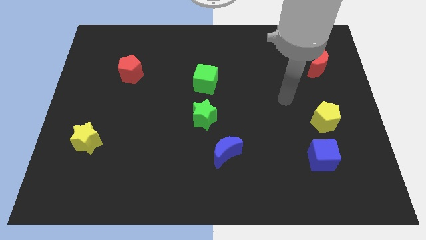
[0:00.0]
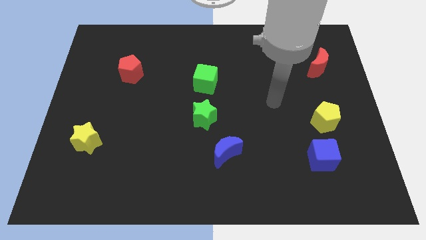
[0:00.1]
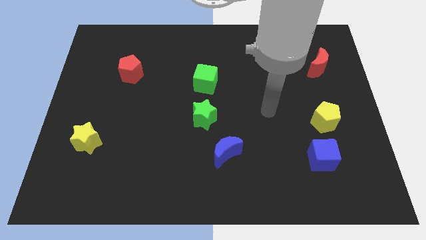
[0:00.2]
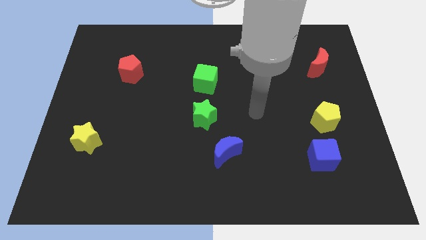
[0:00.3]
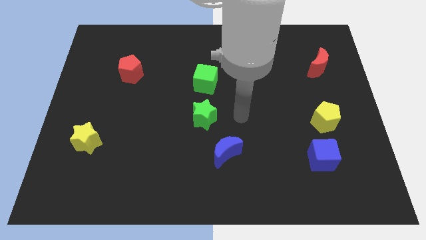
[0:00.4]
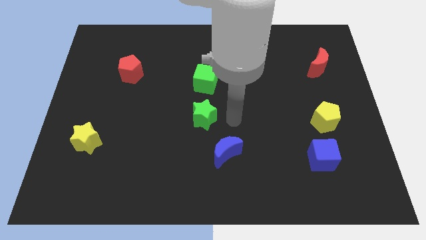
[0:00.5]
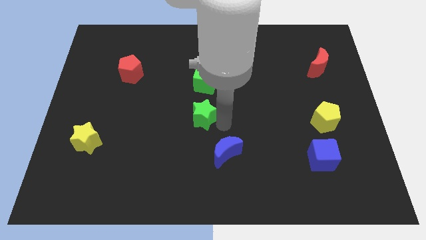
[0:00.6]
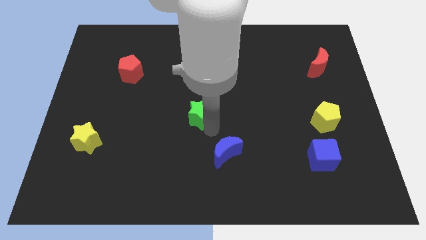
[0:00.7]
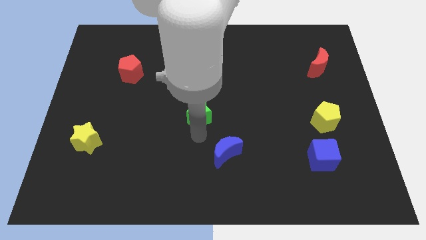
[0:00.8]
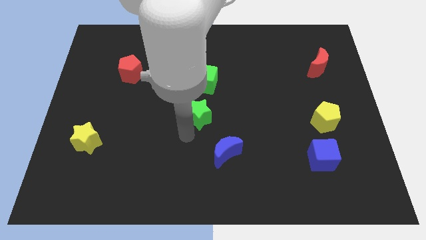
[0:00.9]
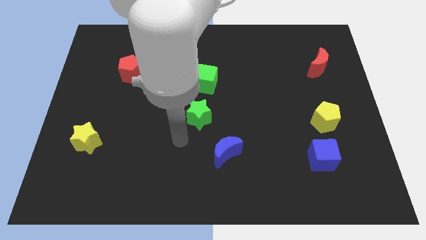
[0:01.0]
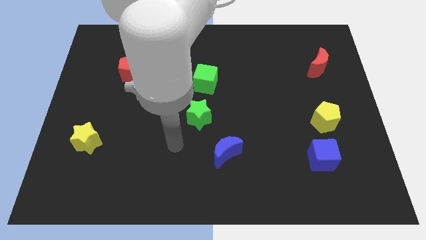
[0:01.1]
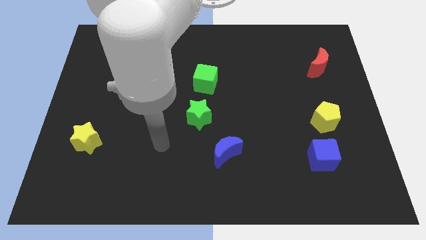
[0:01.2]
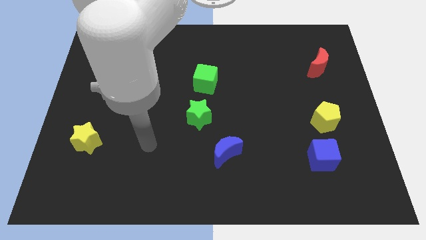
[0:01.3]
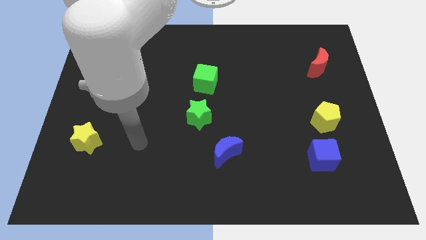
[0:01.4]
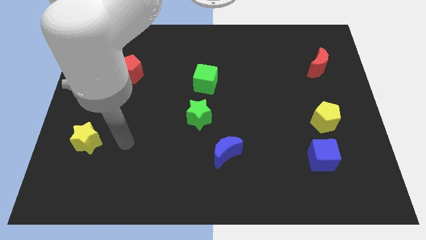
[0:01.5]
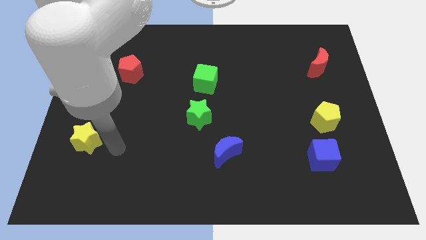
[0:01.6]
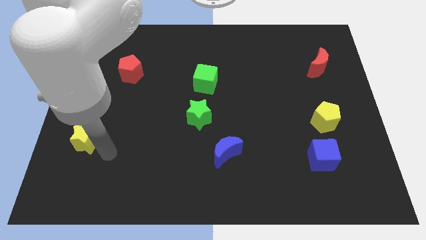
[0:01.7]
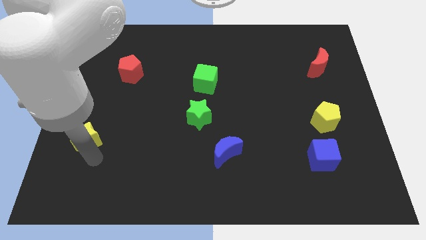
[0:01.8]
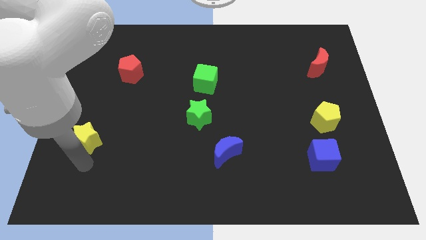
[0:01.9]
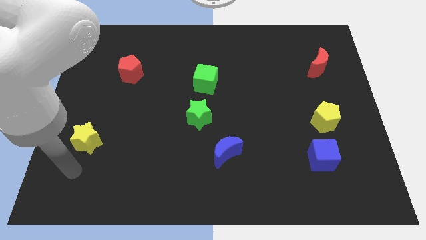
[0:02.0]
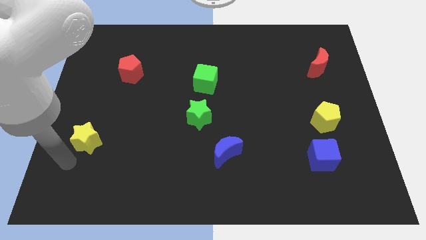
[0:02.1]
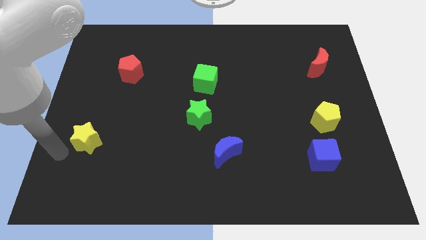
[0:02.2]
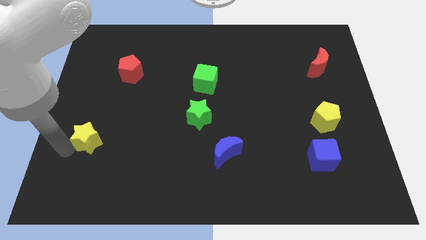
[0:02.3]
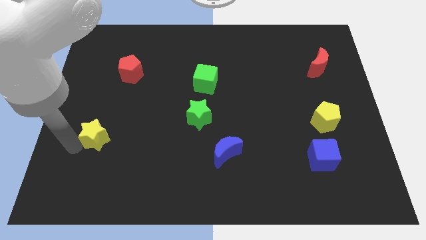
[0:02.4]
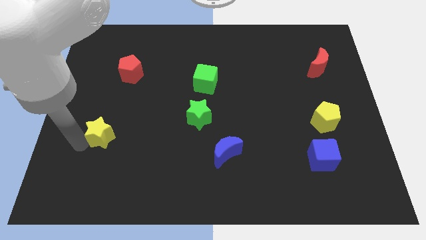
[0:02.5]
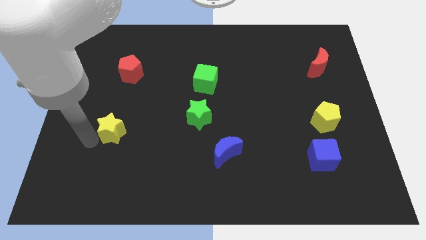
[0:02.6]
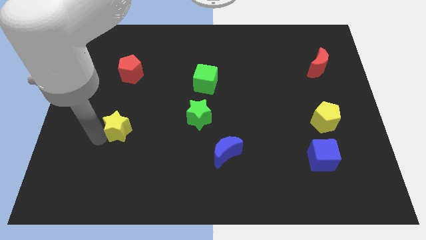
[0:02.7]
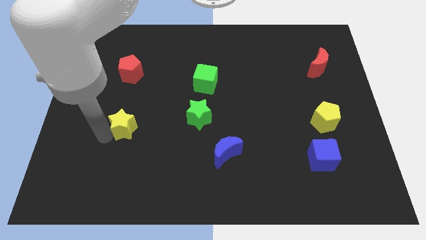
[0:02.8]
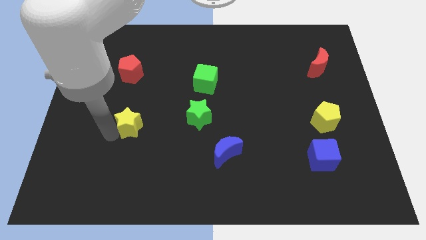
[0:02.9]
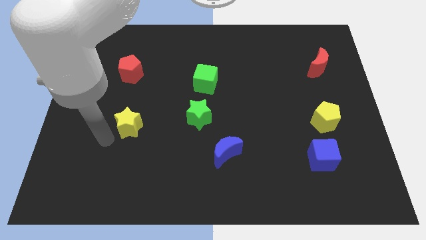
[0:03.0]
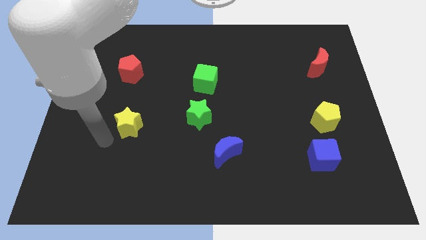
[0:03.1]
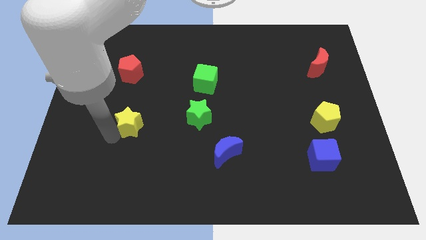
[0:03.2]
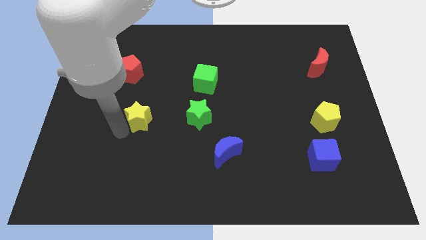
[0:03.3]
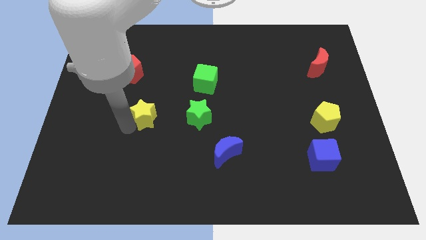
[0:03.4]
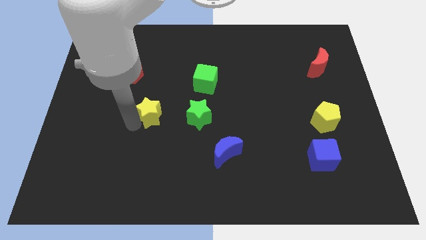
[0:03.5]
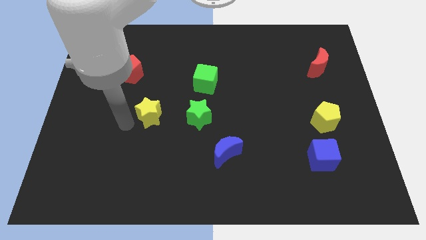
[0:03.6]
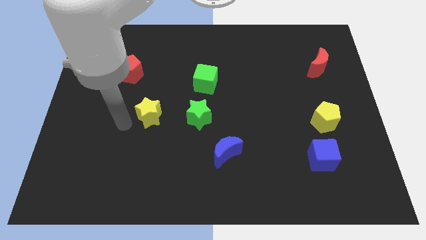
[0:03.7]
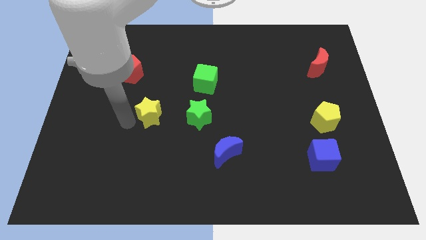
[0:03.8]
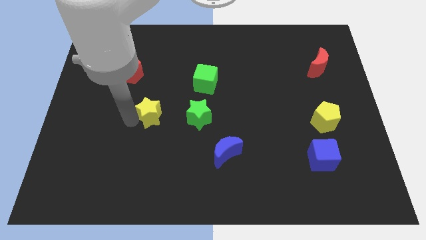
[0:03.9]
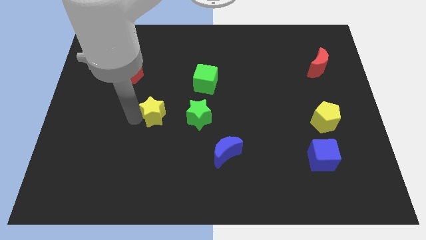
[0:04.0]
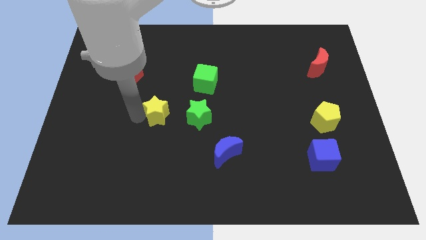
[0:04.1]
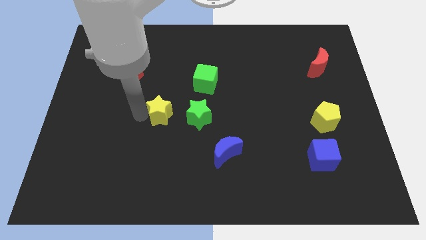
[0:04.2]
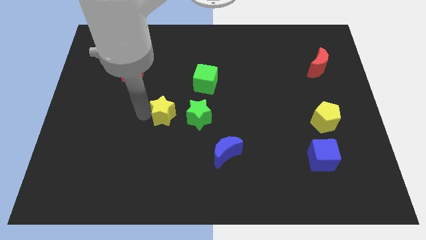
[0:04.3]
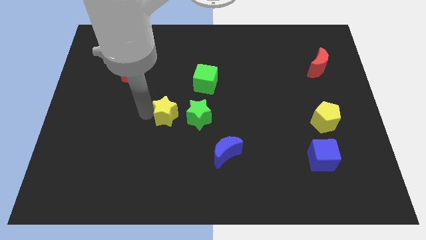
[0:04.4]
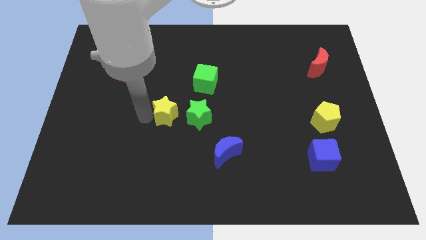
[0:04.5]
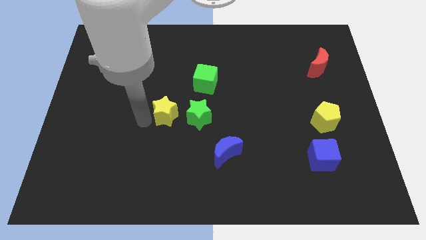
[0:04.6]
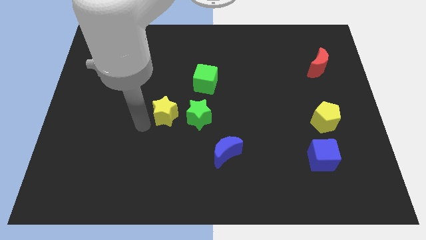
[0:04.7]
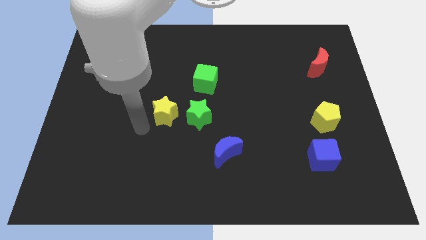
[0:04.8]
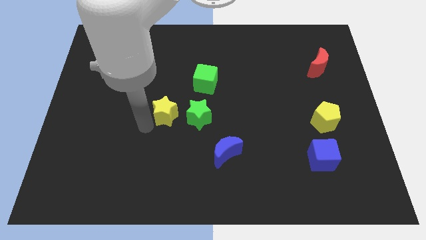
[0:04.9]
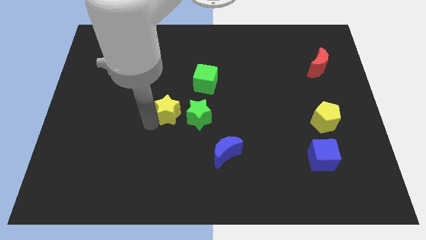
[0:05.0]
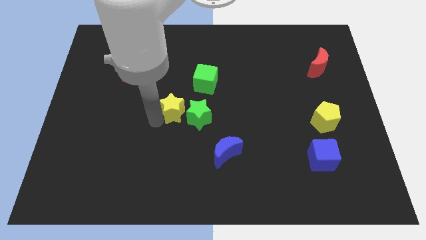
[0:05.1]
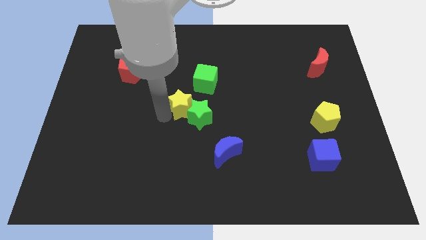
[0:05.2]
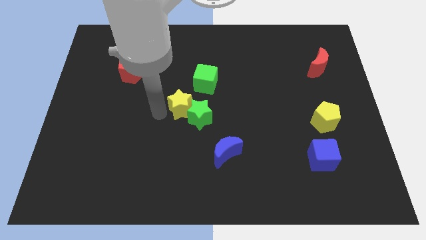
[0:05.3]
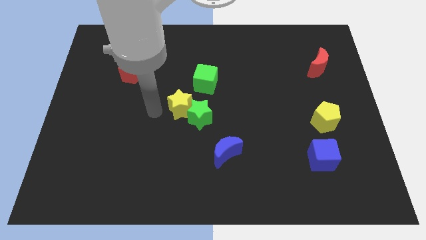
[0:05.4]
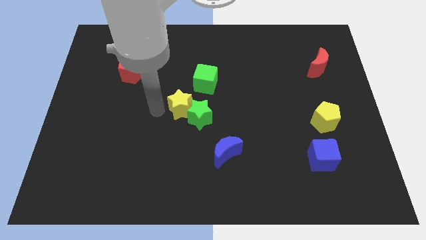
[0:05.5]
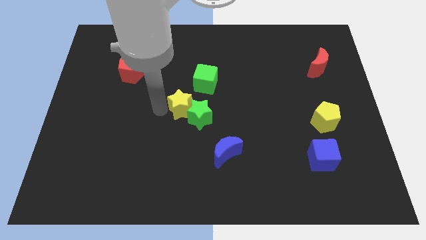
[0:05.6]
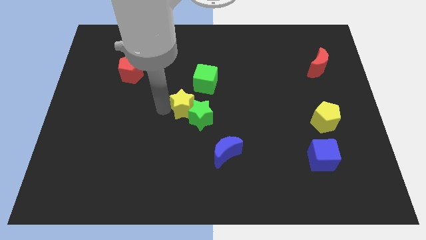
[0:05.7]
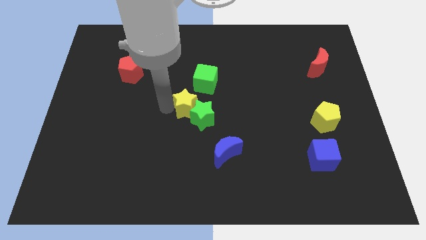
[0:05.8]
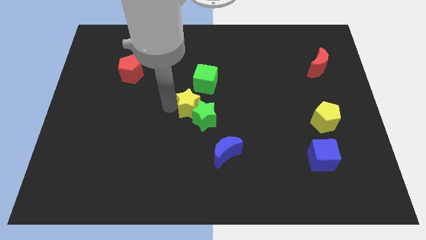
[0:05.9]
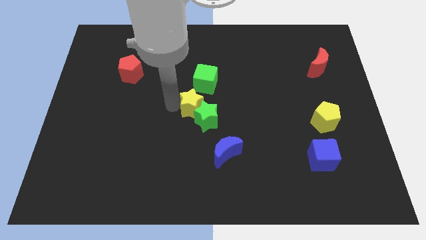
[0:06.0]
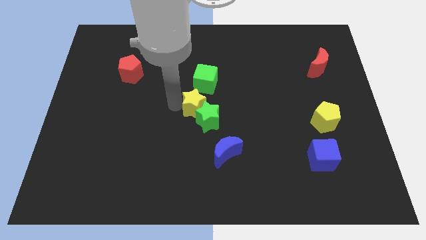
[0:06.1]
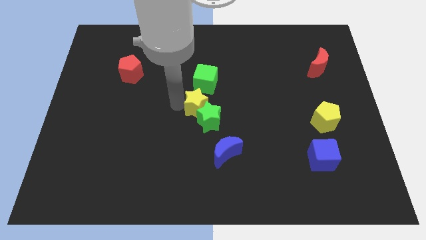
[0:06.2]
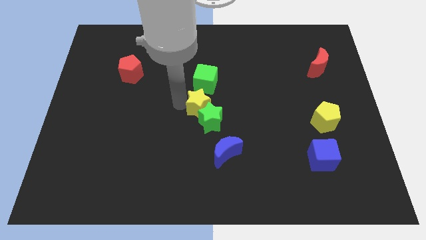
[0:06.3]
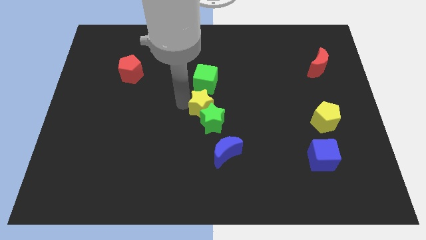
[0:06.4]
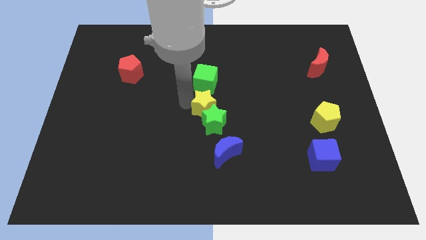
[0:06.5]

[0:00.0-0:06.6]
put the yellow star to the top side of the blue moon
